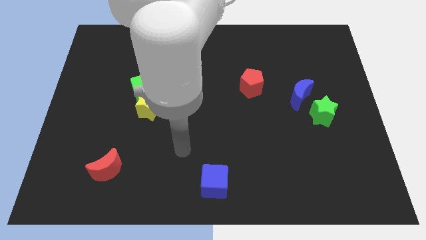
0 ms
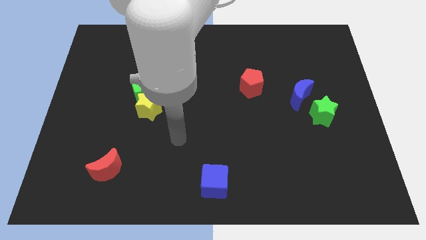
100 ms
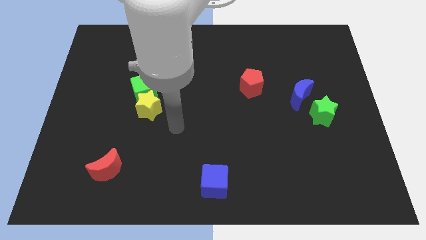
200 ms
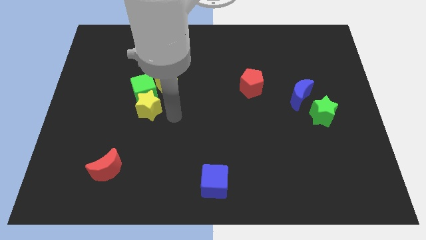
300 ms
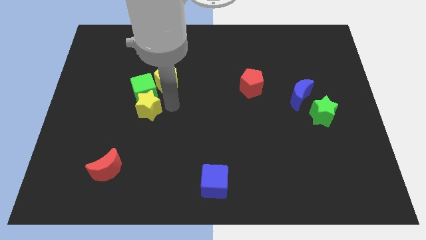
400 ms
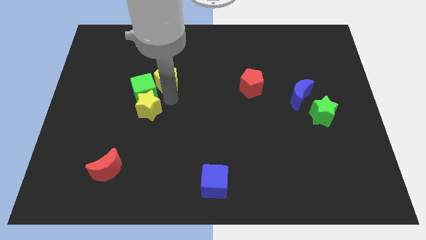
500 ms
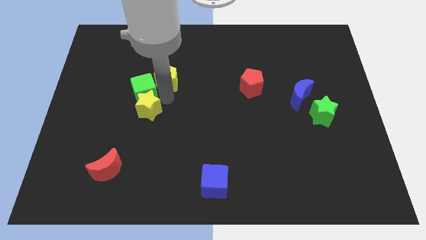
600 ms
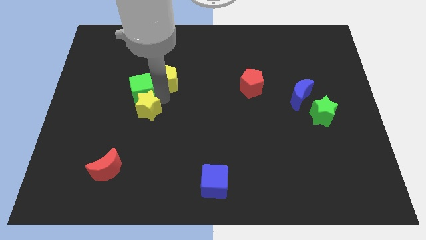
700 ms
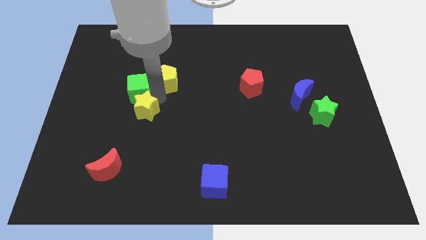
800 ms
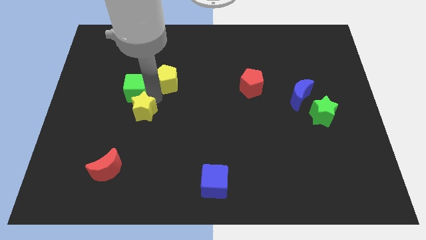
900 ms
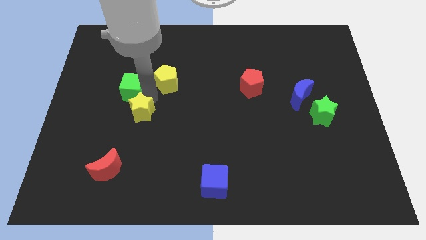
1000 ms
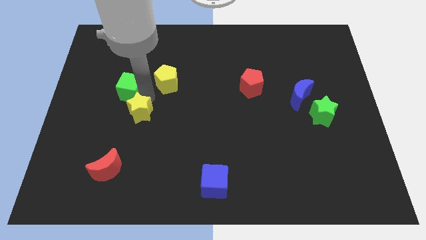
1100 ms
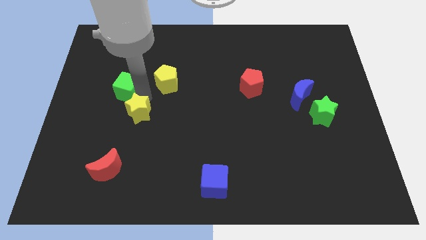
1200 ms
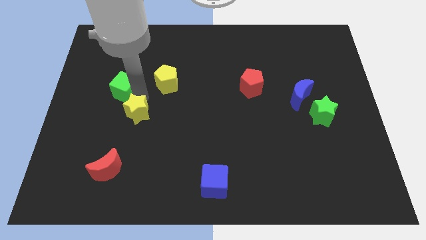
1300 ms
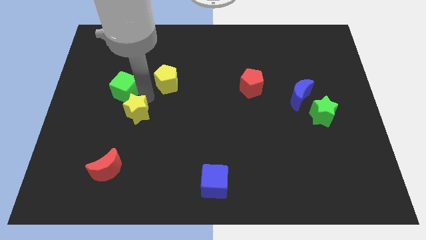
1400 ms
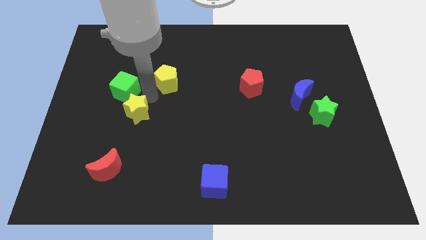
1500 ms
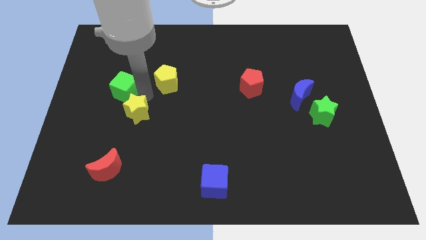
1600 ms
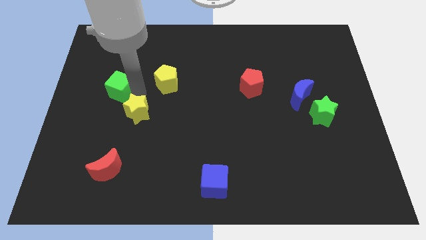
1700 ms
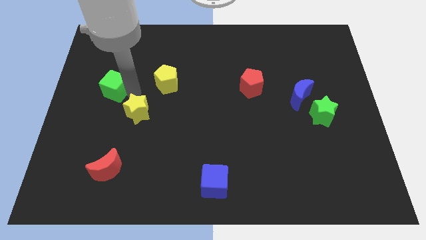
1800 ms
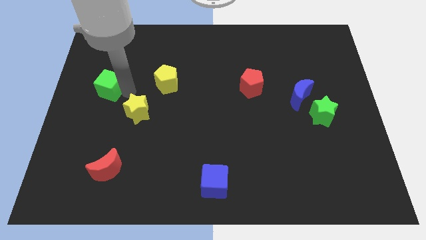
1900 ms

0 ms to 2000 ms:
move the green cube away from the yellow star and yellow pentagon

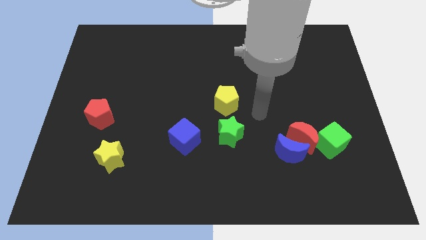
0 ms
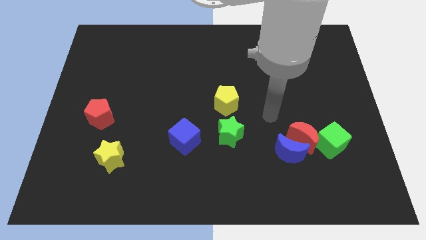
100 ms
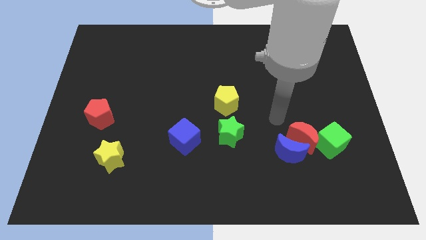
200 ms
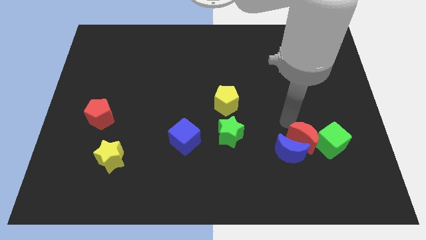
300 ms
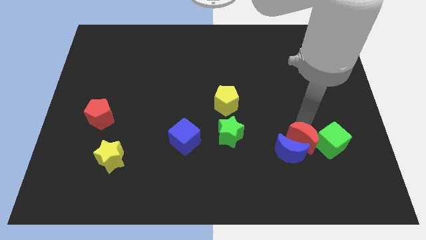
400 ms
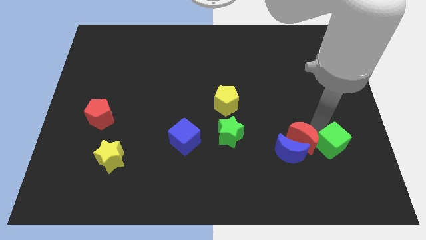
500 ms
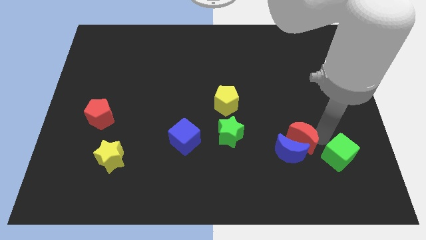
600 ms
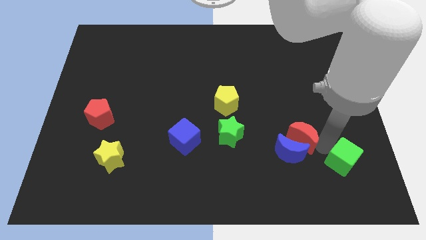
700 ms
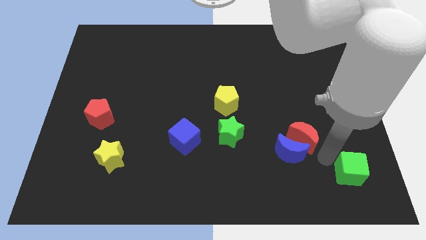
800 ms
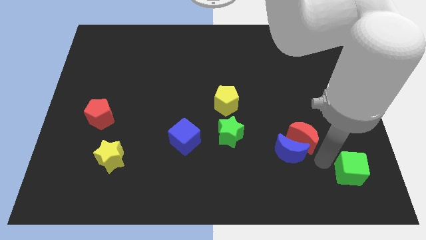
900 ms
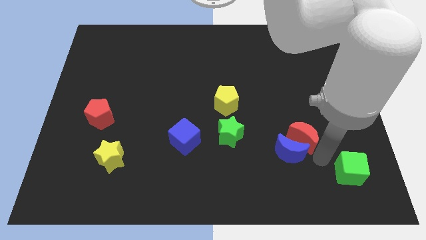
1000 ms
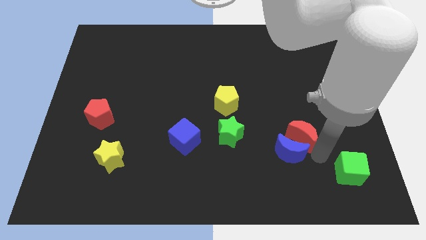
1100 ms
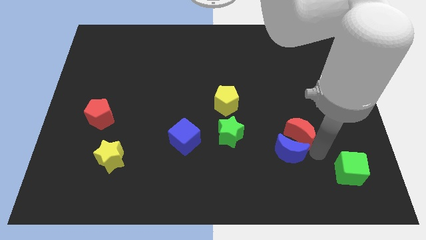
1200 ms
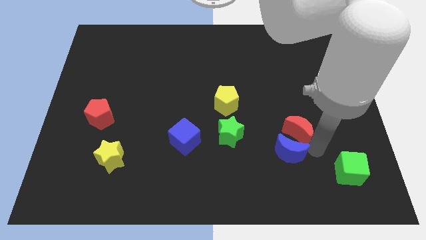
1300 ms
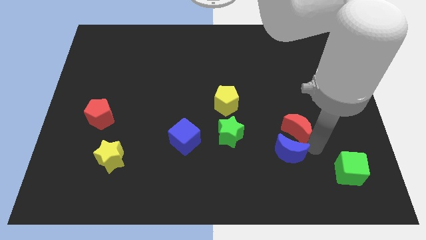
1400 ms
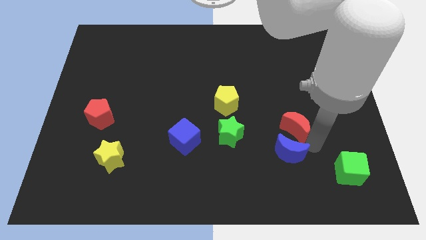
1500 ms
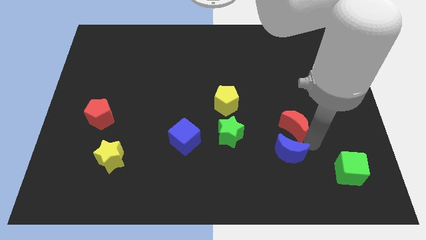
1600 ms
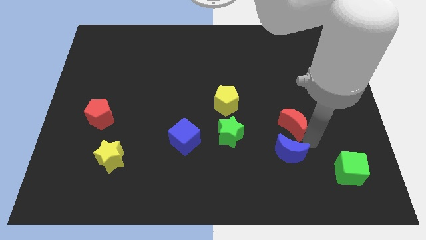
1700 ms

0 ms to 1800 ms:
separate the red moon from the blue moon and green cube

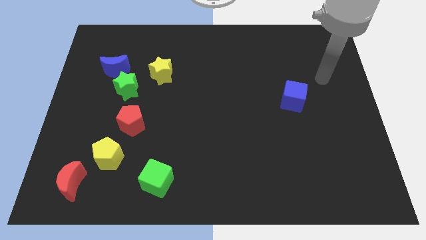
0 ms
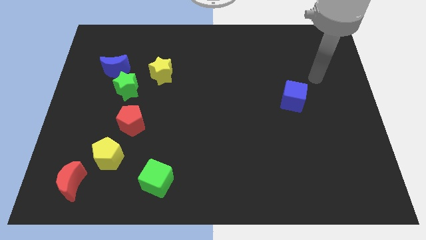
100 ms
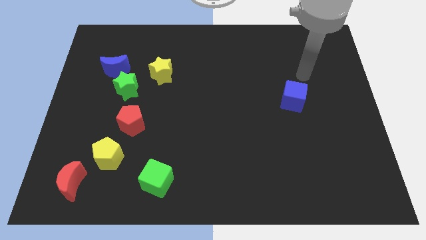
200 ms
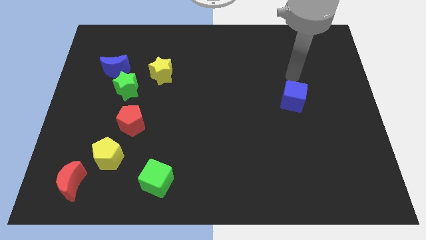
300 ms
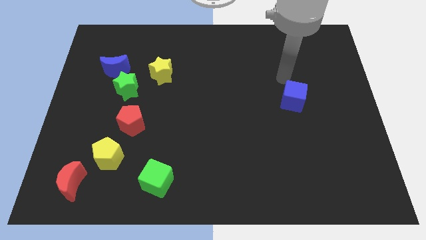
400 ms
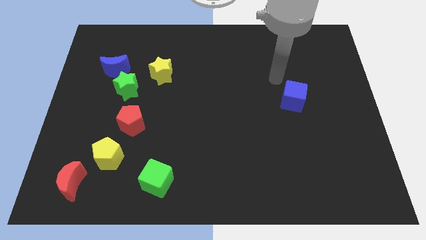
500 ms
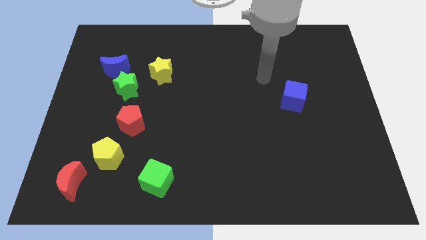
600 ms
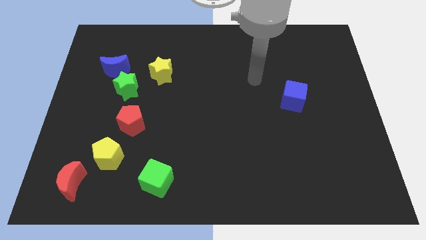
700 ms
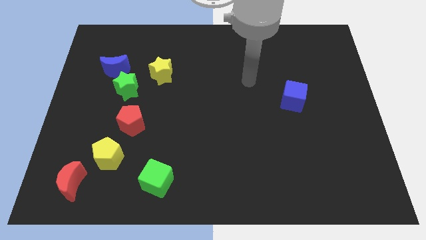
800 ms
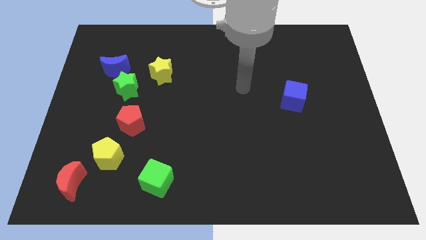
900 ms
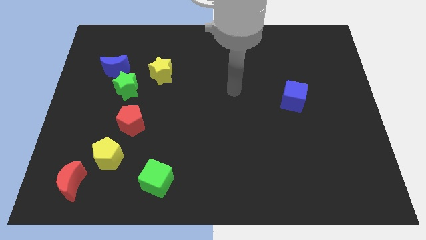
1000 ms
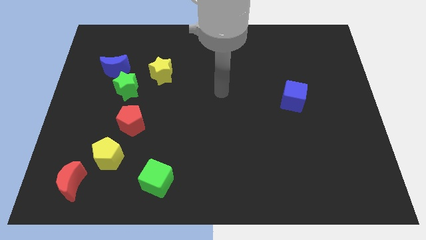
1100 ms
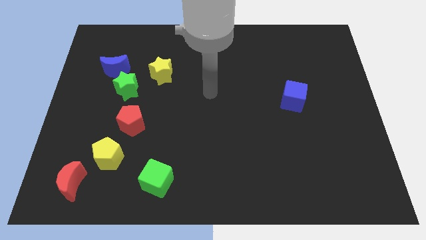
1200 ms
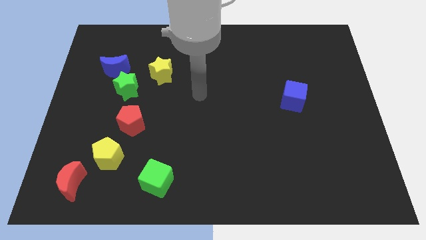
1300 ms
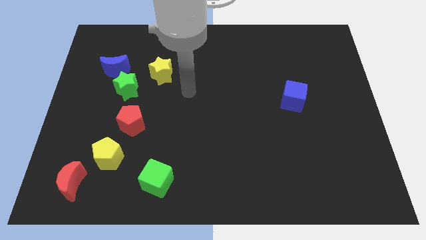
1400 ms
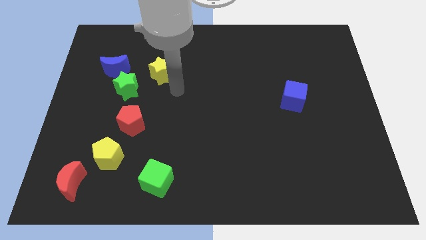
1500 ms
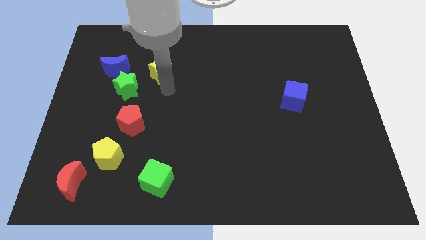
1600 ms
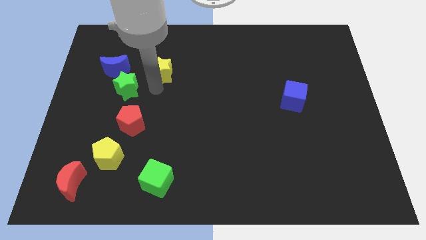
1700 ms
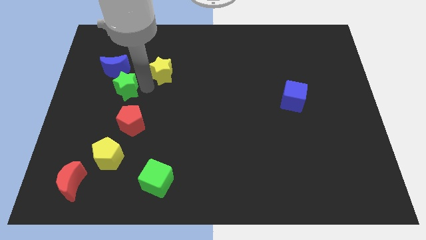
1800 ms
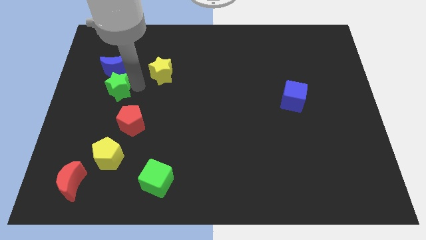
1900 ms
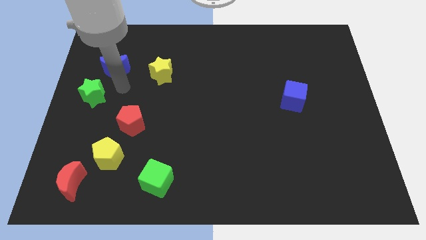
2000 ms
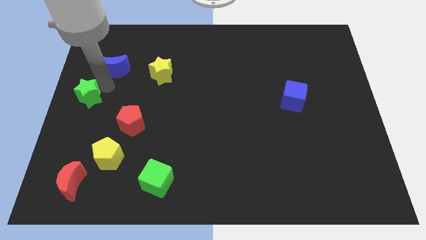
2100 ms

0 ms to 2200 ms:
separate the blue moon from the green star

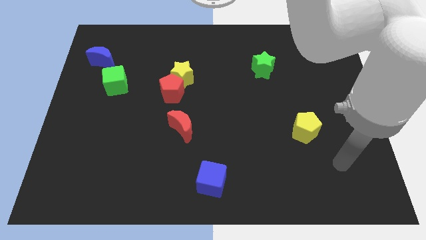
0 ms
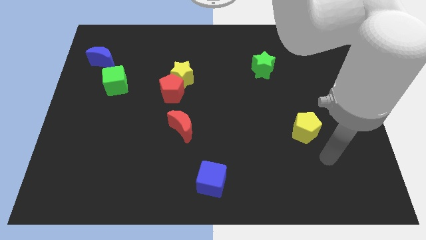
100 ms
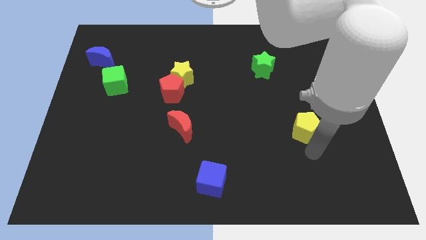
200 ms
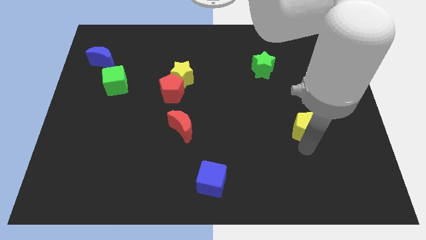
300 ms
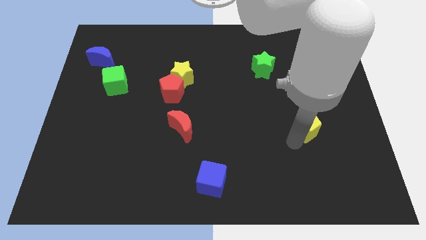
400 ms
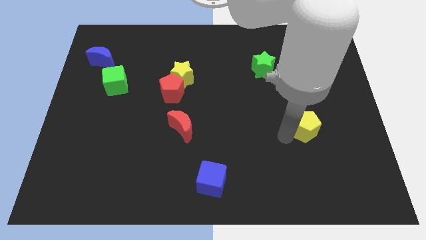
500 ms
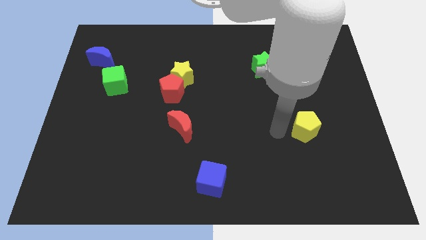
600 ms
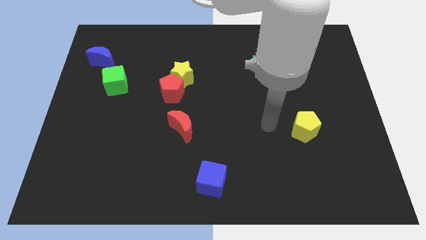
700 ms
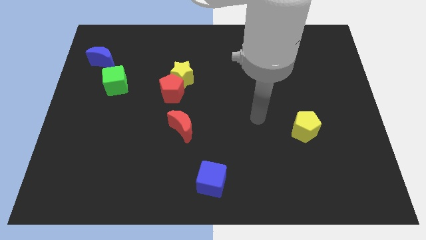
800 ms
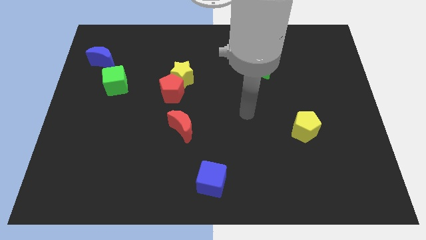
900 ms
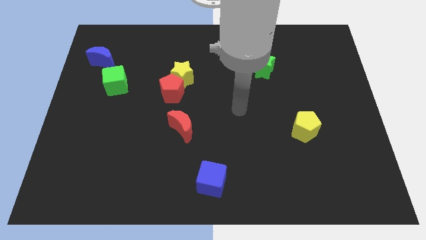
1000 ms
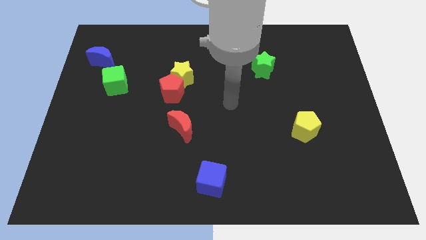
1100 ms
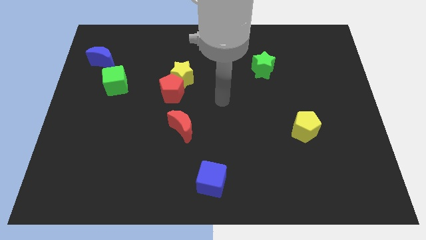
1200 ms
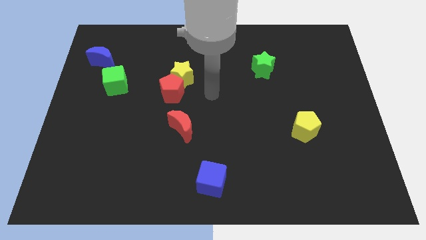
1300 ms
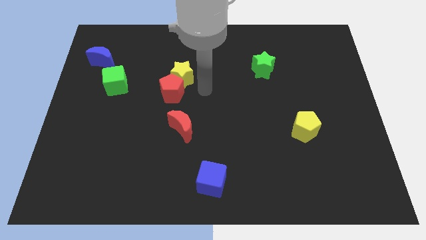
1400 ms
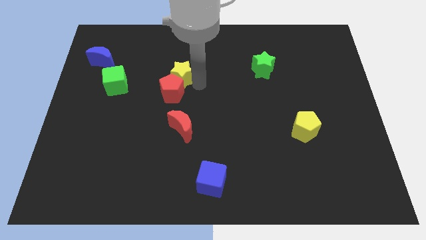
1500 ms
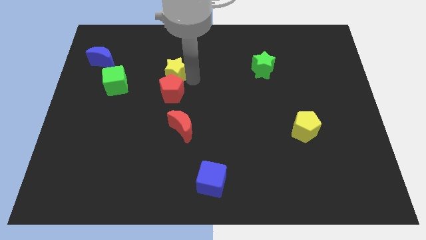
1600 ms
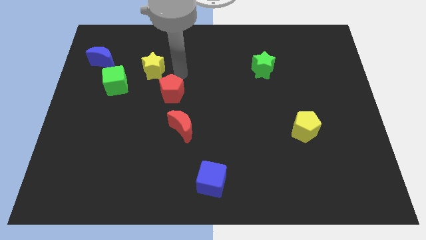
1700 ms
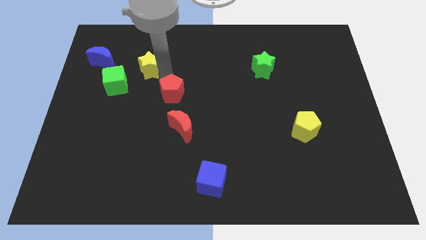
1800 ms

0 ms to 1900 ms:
pull the red pentagon apart from the yellow star

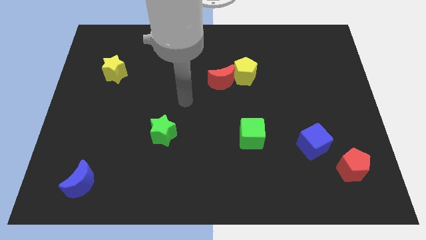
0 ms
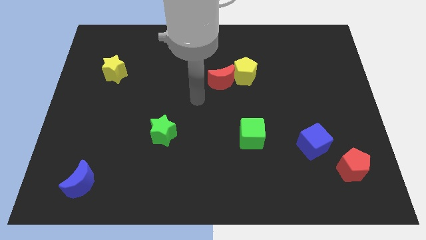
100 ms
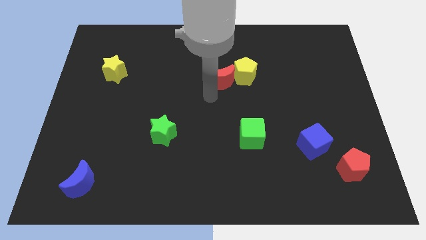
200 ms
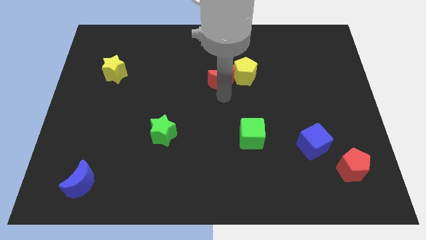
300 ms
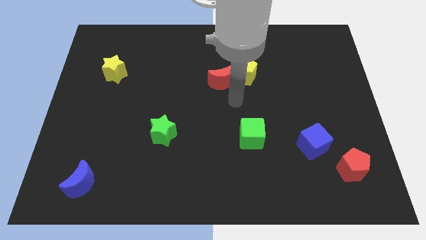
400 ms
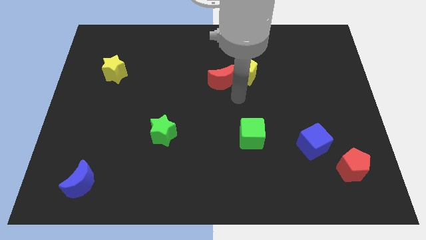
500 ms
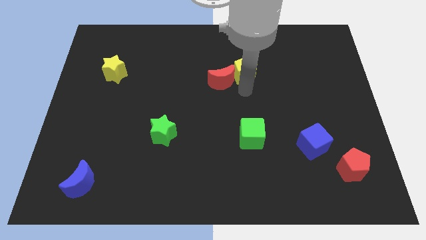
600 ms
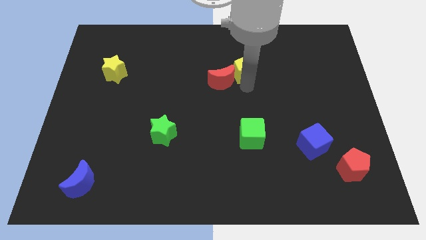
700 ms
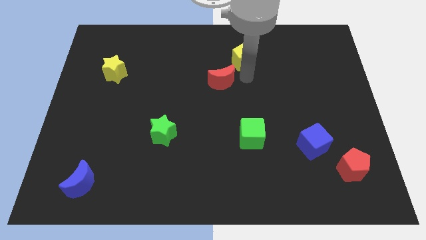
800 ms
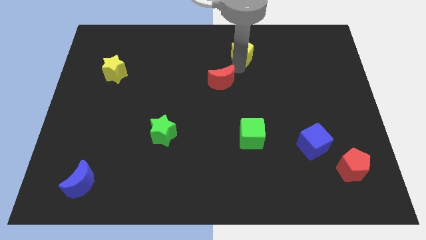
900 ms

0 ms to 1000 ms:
pull the red moon apart from the yellow pentagon

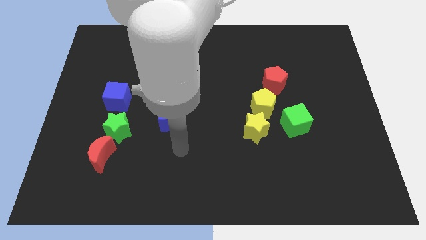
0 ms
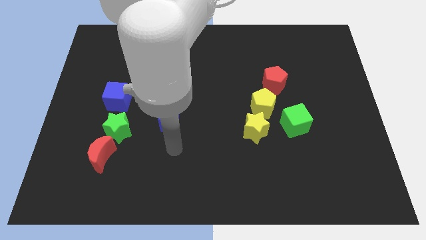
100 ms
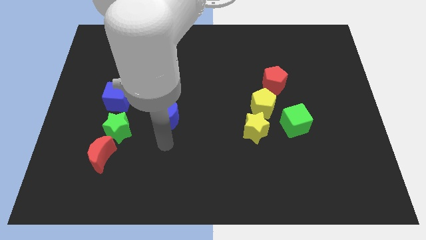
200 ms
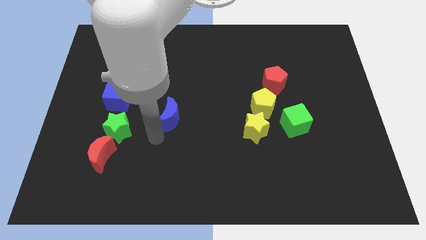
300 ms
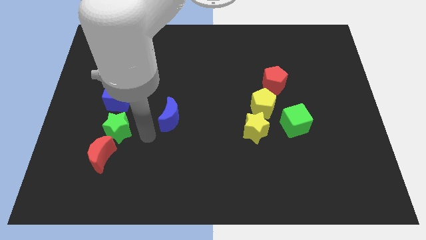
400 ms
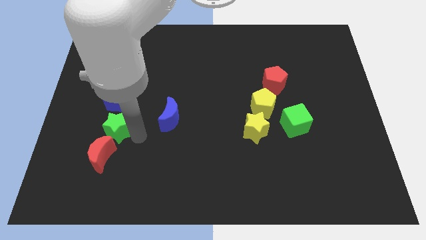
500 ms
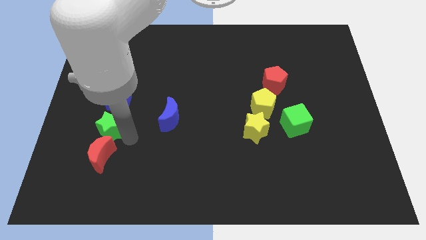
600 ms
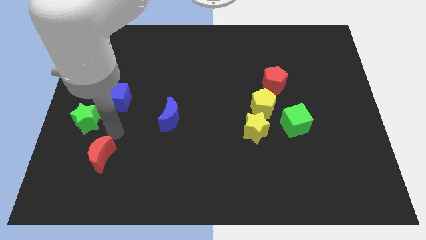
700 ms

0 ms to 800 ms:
separate the red moon from the green star
